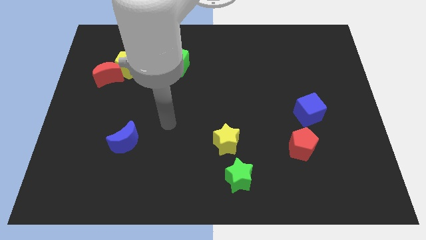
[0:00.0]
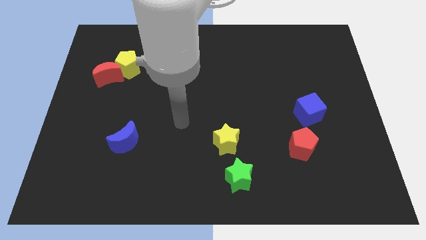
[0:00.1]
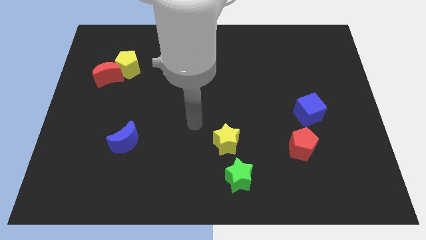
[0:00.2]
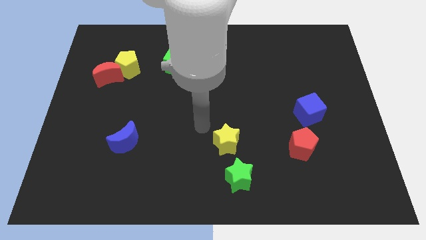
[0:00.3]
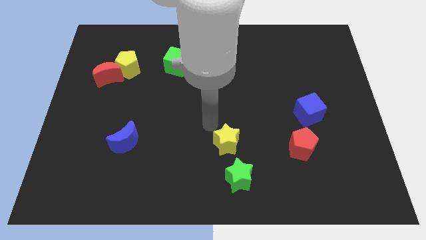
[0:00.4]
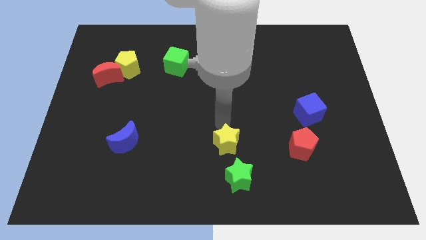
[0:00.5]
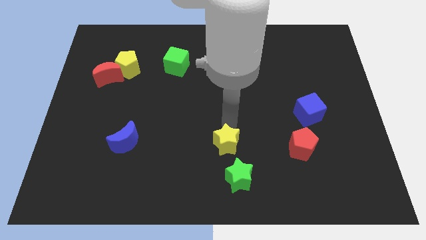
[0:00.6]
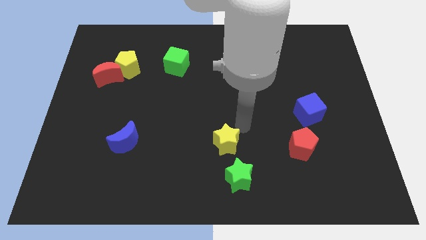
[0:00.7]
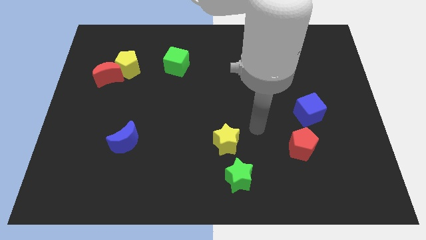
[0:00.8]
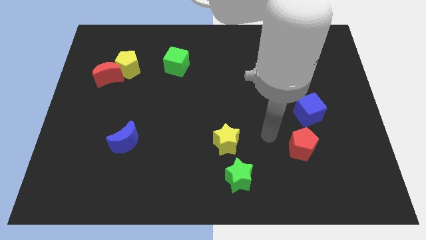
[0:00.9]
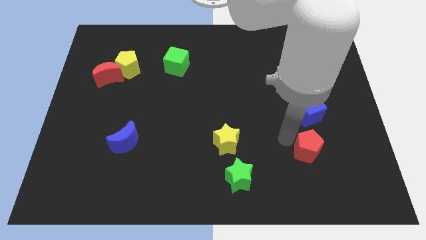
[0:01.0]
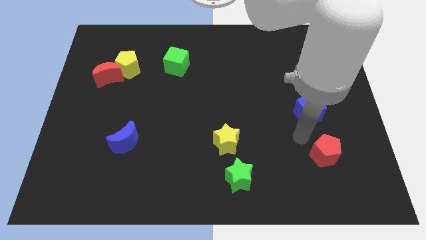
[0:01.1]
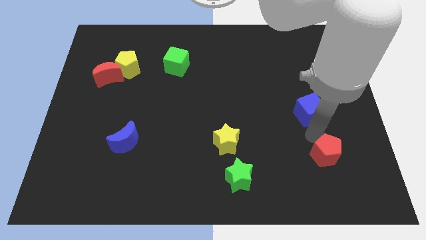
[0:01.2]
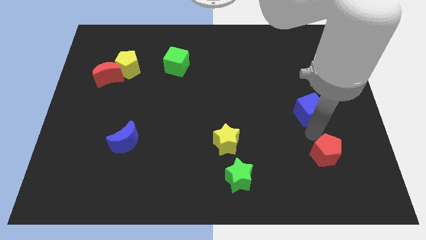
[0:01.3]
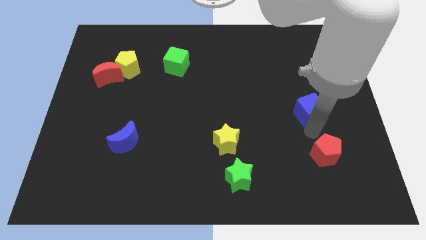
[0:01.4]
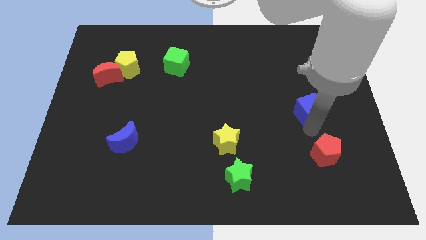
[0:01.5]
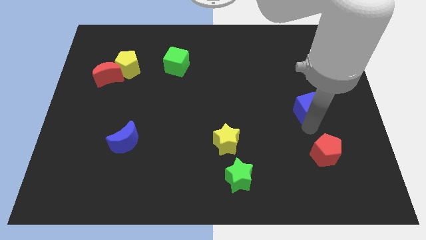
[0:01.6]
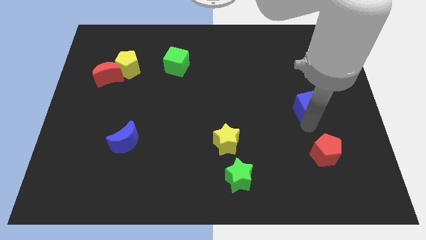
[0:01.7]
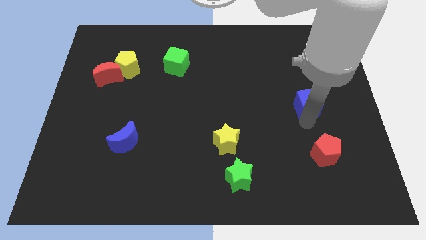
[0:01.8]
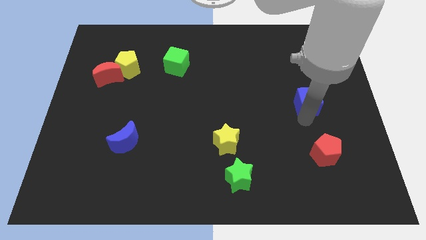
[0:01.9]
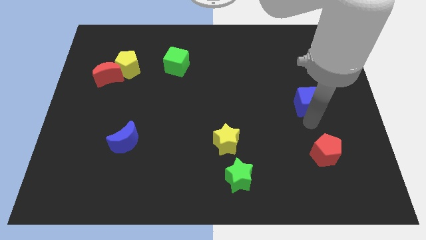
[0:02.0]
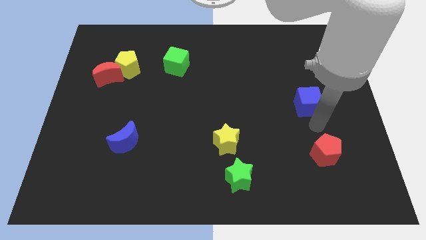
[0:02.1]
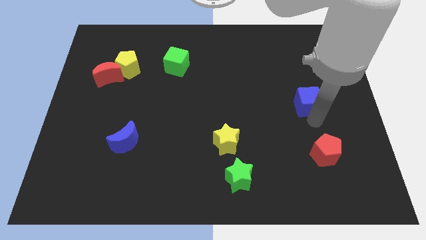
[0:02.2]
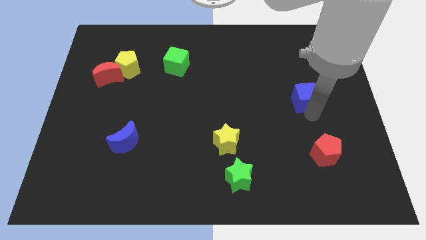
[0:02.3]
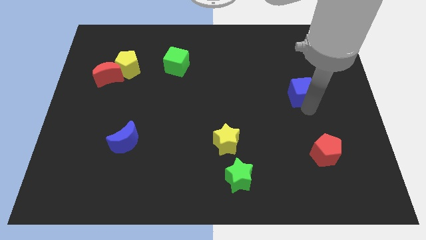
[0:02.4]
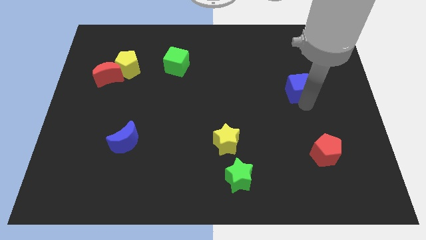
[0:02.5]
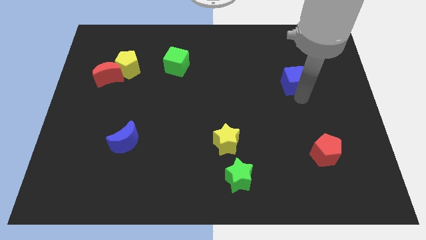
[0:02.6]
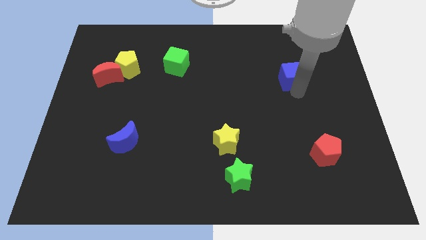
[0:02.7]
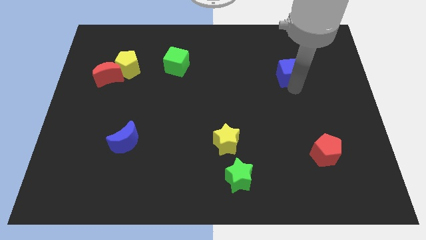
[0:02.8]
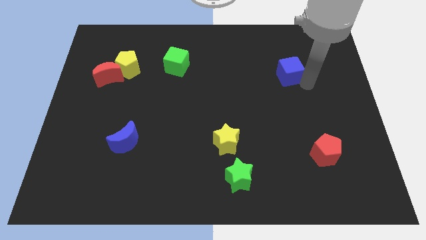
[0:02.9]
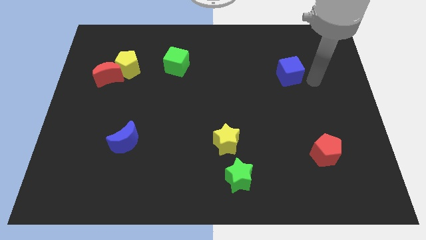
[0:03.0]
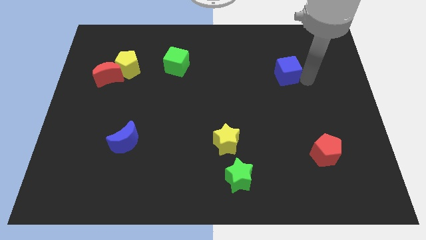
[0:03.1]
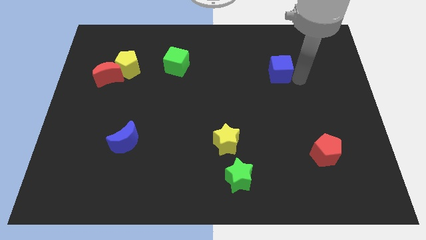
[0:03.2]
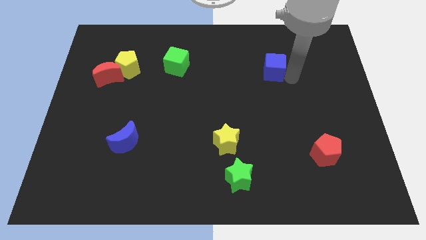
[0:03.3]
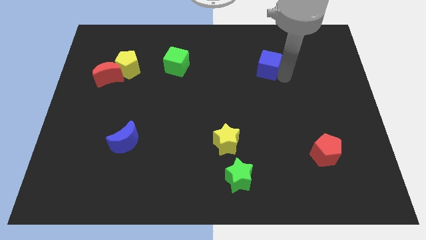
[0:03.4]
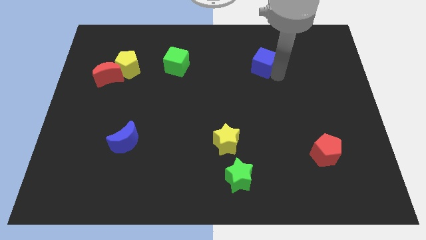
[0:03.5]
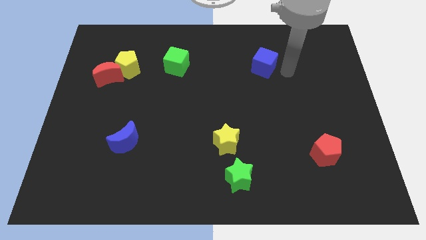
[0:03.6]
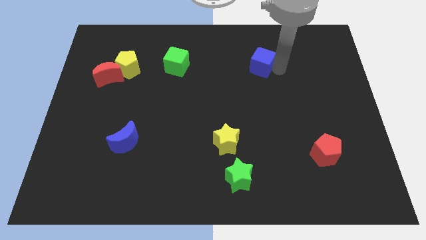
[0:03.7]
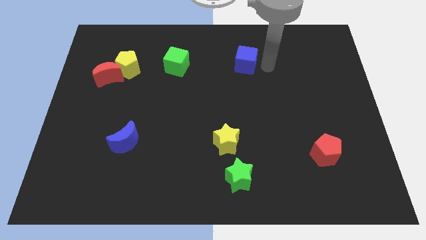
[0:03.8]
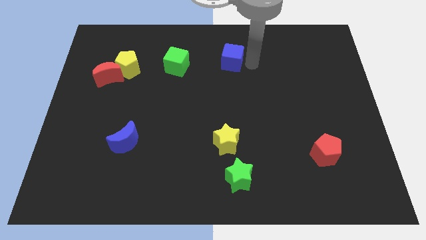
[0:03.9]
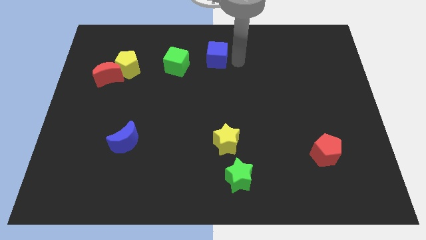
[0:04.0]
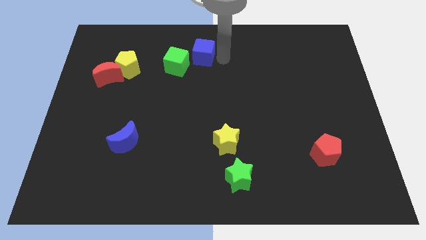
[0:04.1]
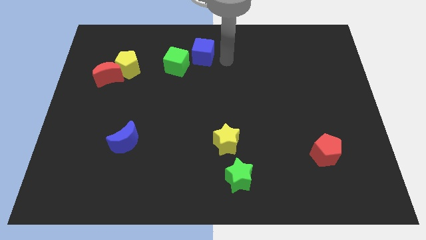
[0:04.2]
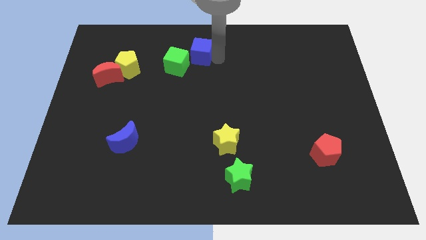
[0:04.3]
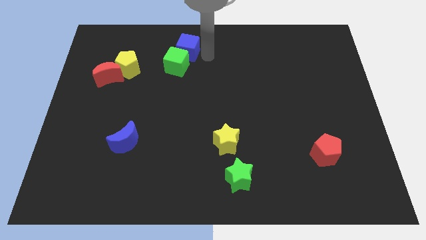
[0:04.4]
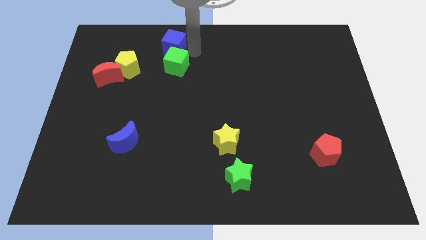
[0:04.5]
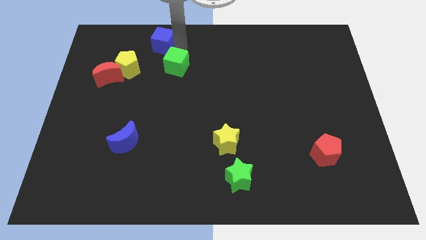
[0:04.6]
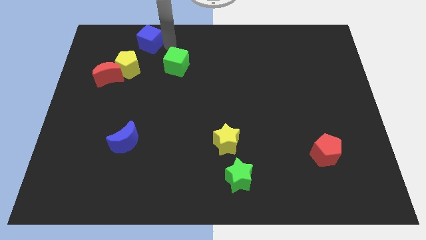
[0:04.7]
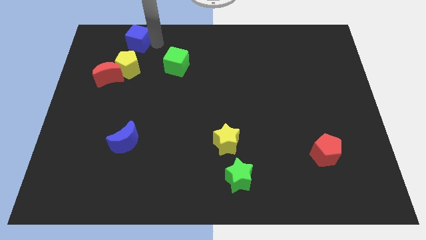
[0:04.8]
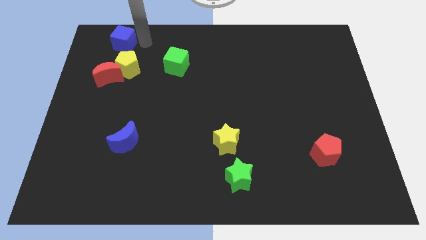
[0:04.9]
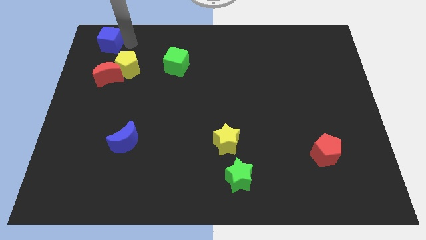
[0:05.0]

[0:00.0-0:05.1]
move the blue cube to the top left of the board

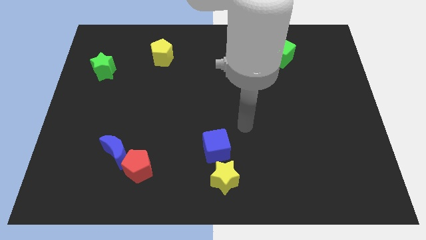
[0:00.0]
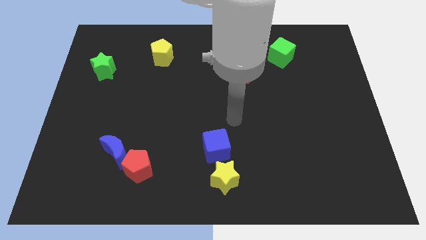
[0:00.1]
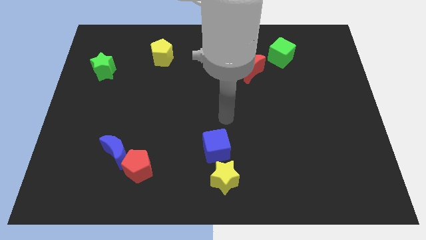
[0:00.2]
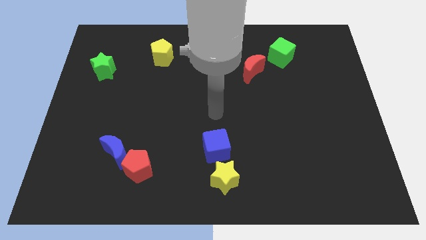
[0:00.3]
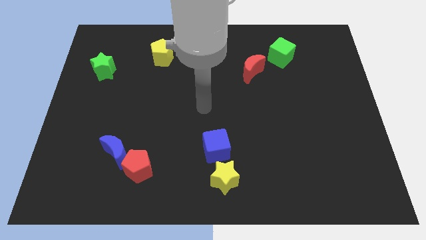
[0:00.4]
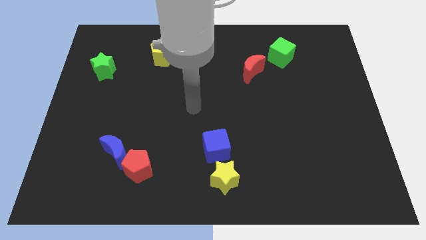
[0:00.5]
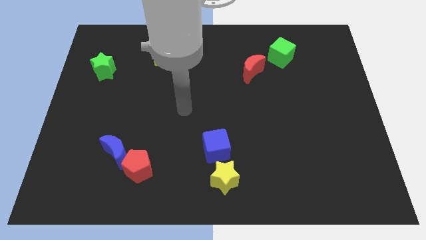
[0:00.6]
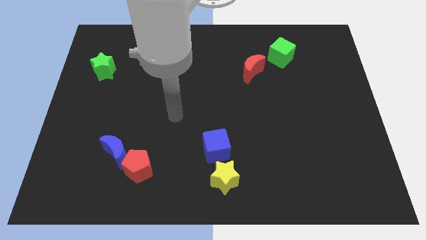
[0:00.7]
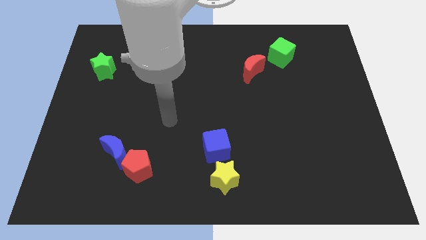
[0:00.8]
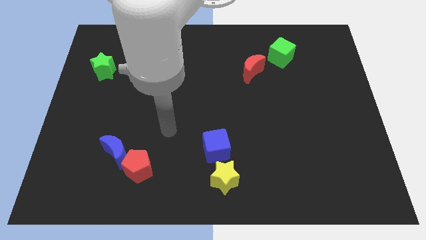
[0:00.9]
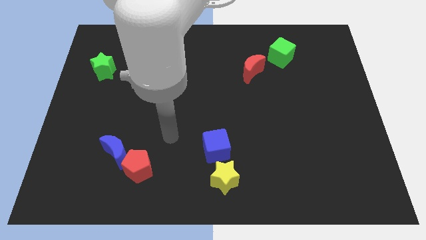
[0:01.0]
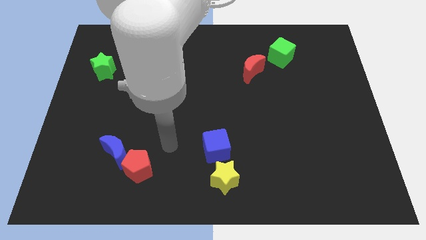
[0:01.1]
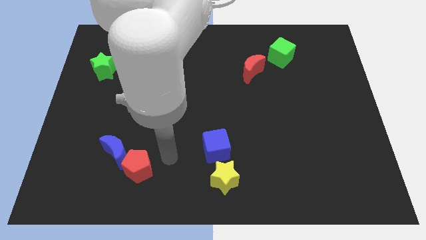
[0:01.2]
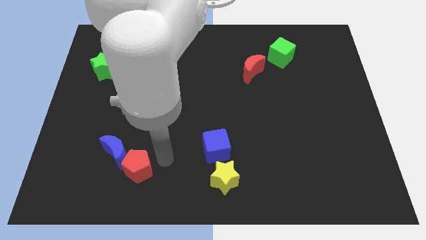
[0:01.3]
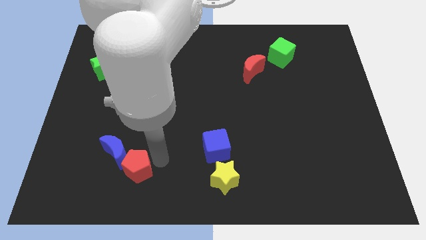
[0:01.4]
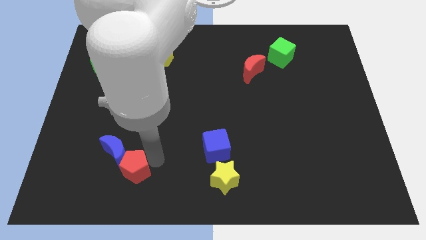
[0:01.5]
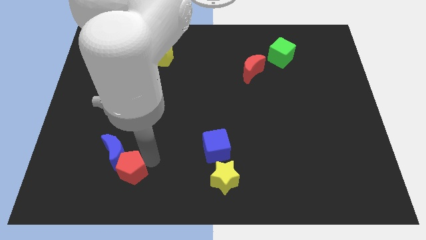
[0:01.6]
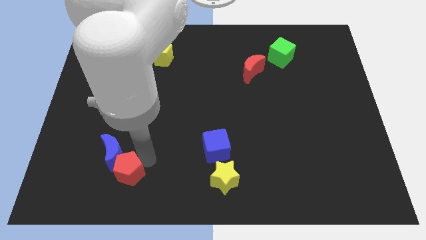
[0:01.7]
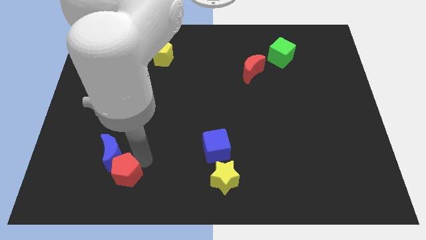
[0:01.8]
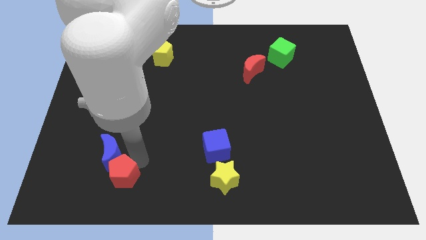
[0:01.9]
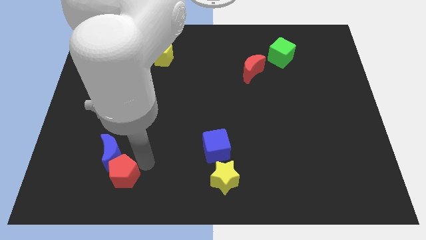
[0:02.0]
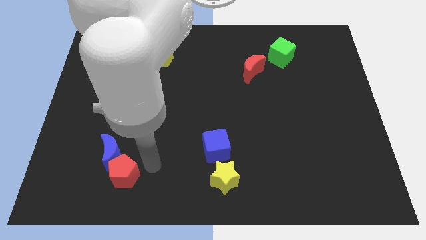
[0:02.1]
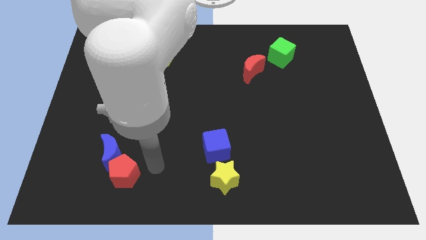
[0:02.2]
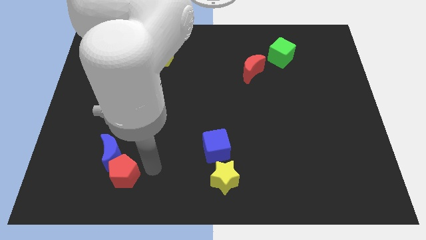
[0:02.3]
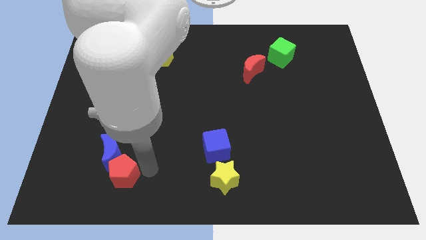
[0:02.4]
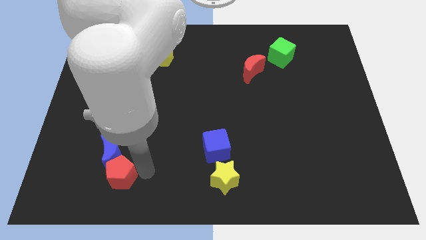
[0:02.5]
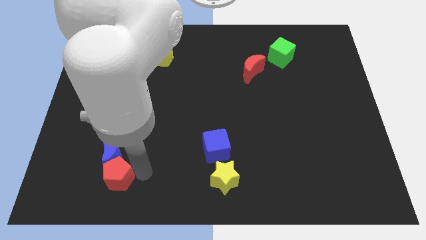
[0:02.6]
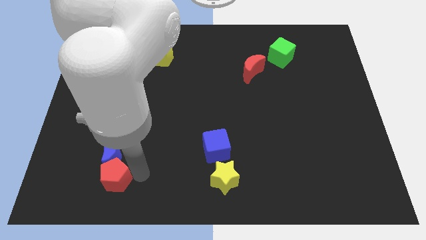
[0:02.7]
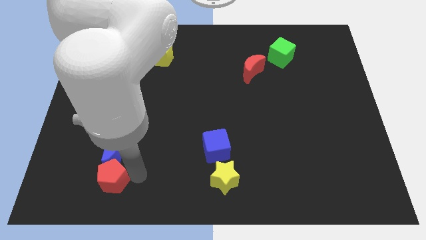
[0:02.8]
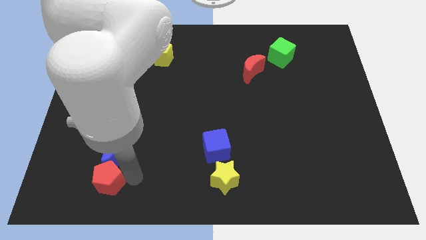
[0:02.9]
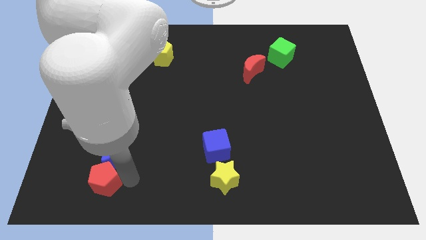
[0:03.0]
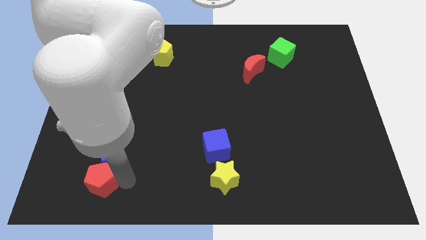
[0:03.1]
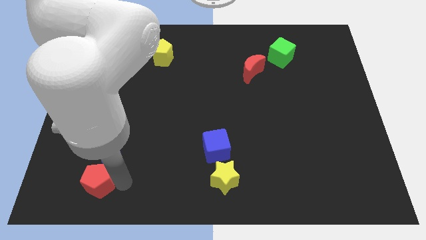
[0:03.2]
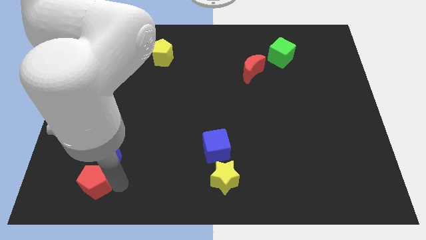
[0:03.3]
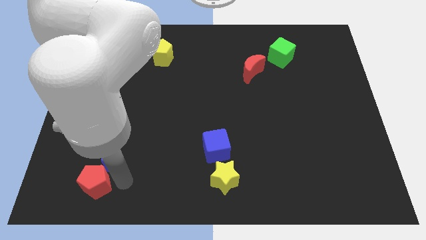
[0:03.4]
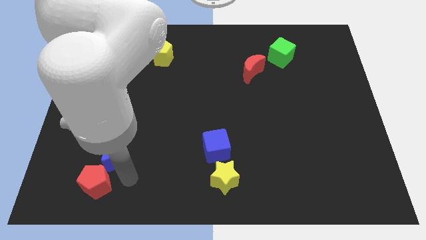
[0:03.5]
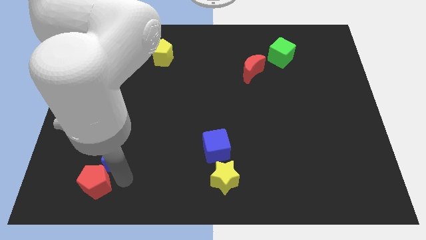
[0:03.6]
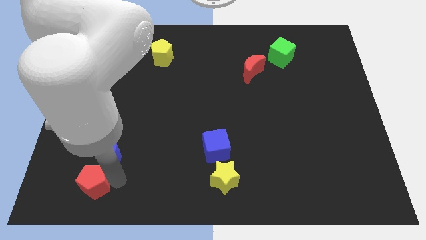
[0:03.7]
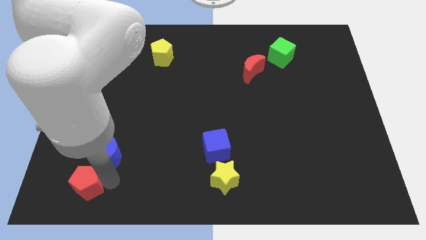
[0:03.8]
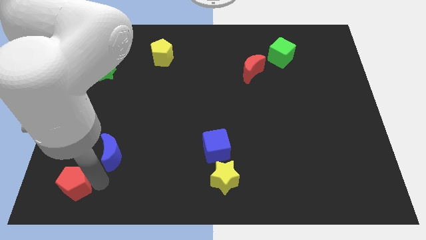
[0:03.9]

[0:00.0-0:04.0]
move the red pentagon to the bottom left
